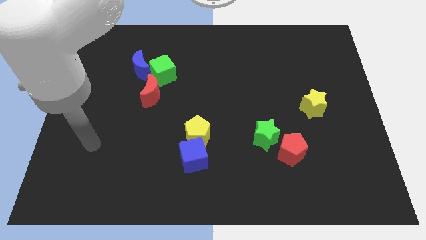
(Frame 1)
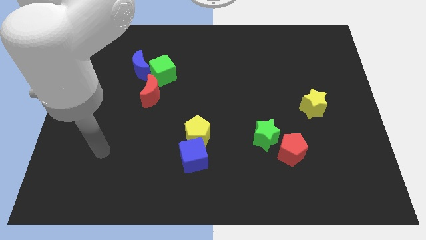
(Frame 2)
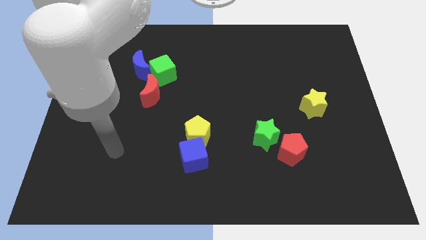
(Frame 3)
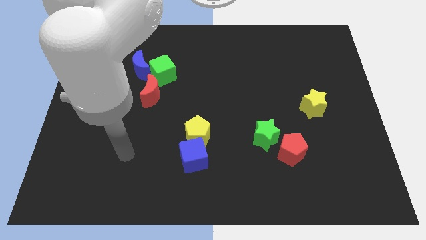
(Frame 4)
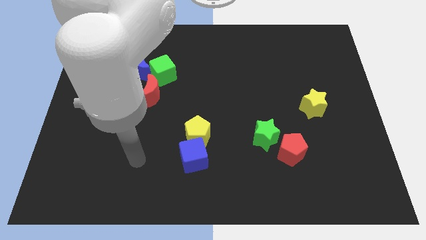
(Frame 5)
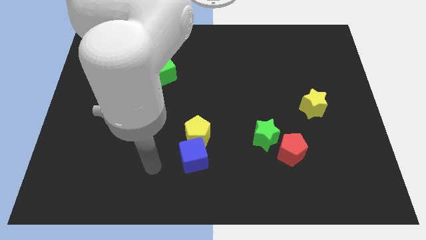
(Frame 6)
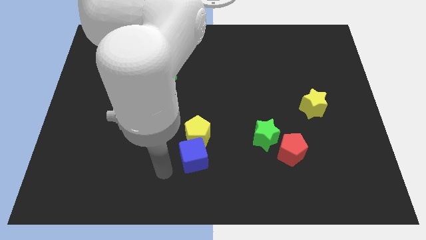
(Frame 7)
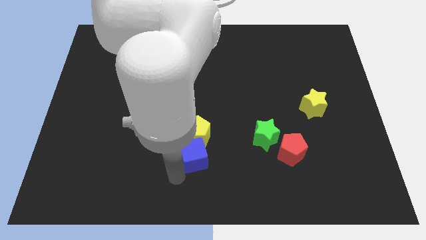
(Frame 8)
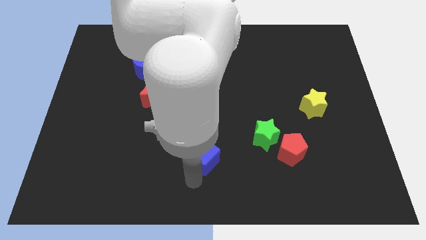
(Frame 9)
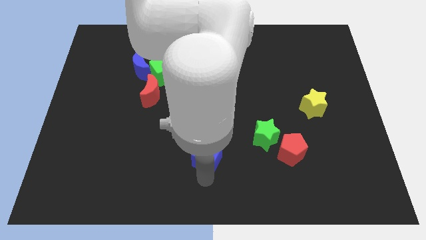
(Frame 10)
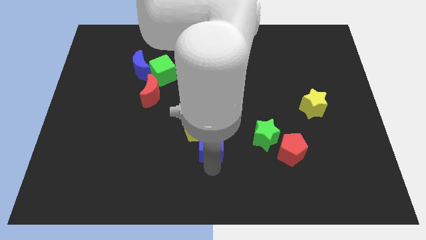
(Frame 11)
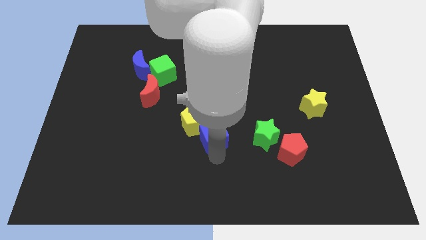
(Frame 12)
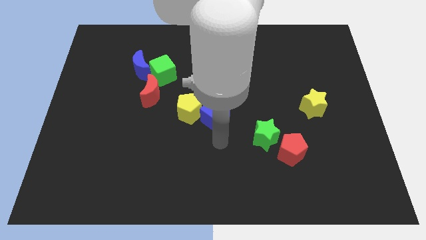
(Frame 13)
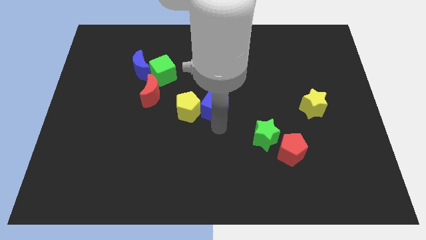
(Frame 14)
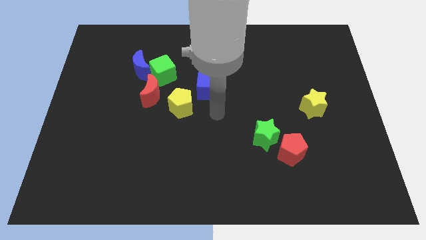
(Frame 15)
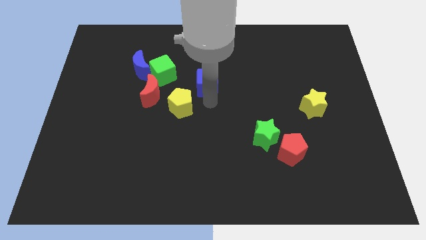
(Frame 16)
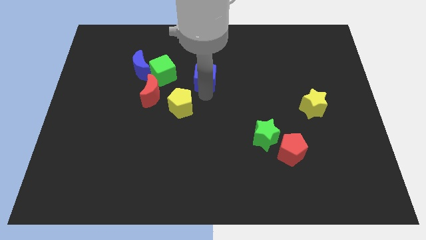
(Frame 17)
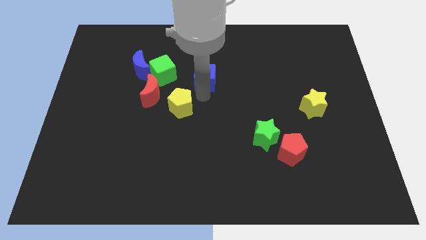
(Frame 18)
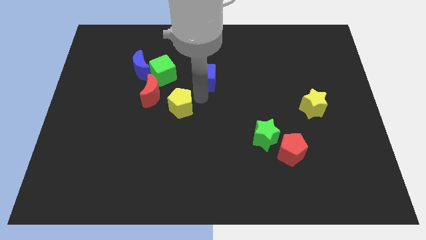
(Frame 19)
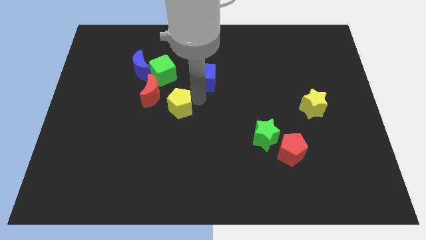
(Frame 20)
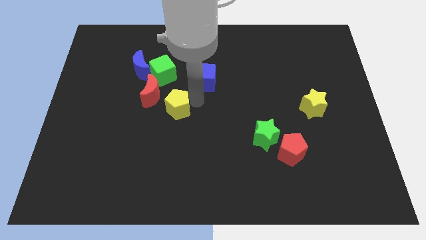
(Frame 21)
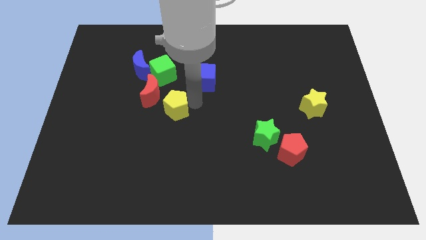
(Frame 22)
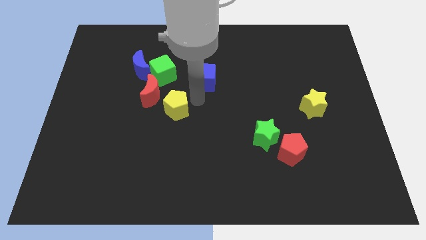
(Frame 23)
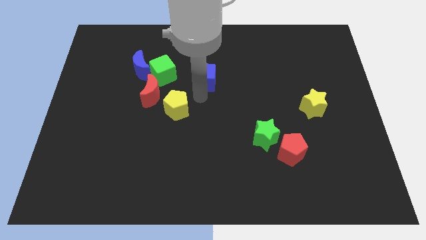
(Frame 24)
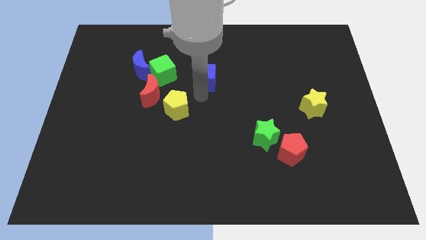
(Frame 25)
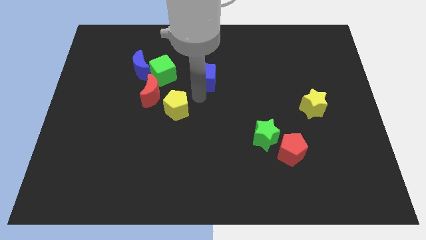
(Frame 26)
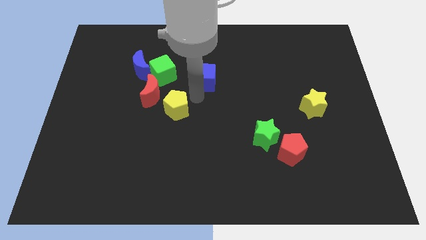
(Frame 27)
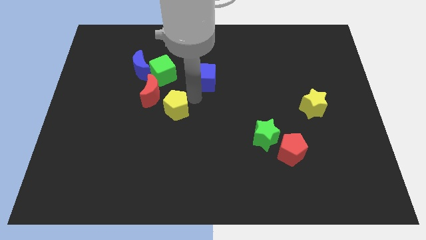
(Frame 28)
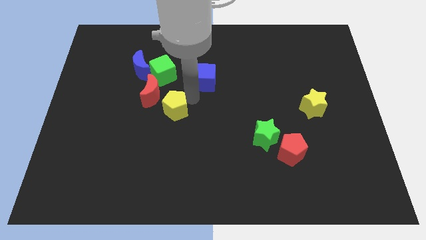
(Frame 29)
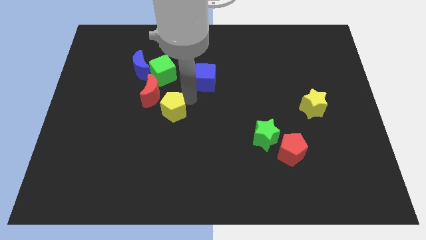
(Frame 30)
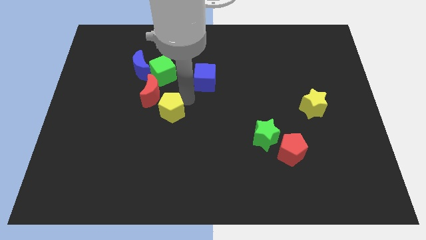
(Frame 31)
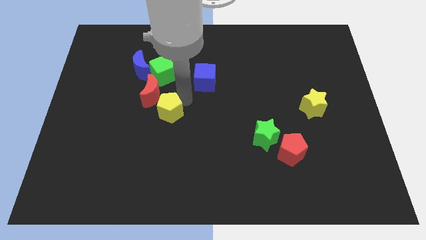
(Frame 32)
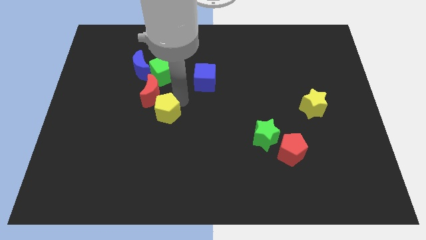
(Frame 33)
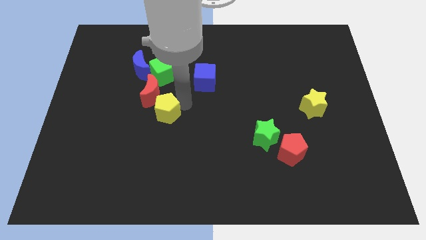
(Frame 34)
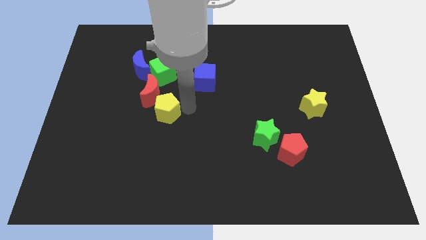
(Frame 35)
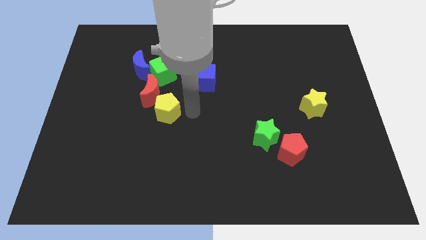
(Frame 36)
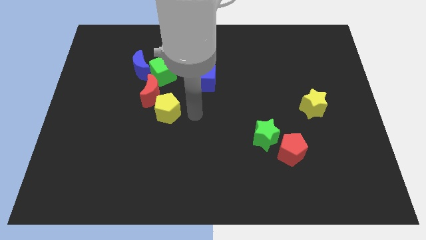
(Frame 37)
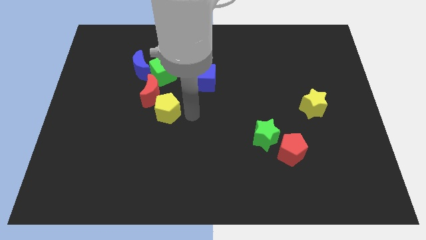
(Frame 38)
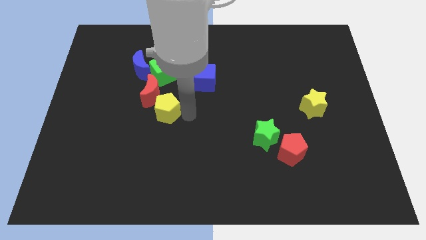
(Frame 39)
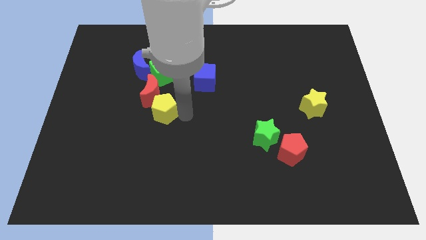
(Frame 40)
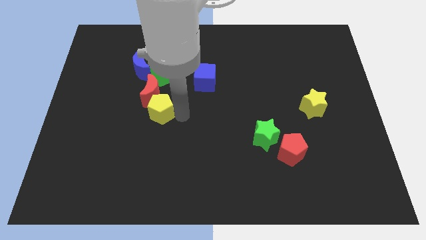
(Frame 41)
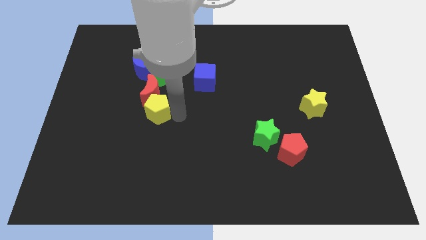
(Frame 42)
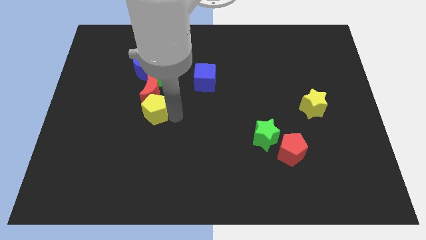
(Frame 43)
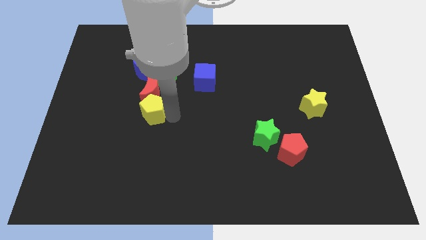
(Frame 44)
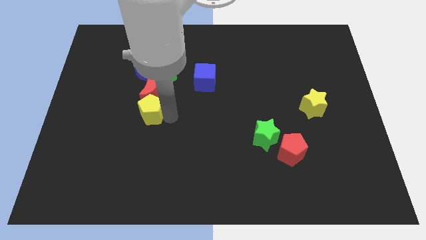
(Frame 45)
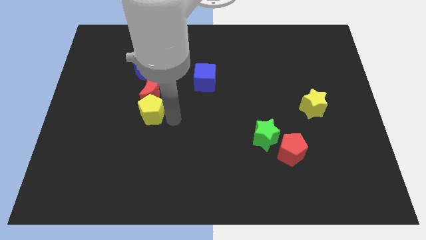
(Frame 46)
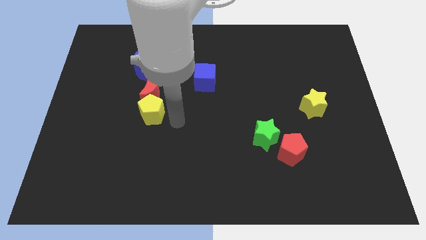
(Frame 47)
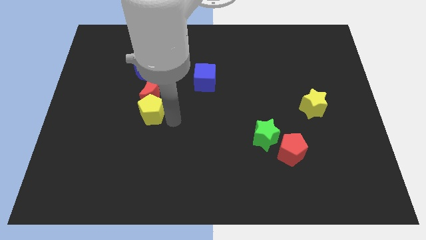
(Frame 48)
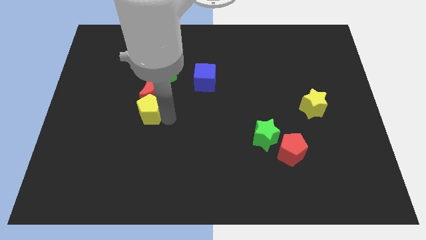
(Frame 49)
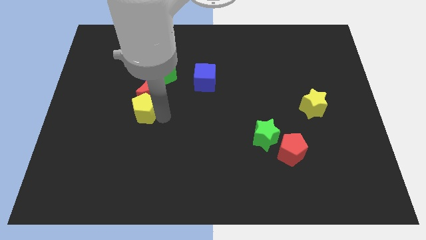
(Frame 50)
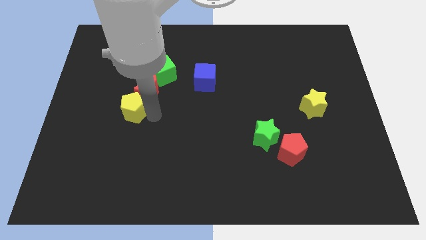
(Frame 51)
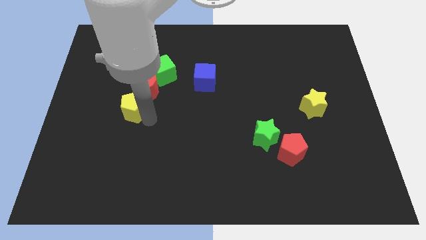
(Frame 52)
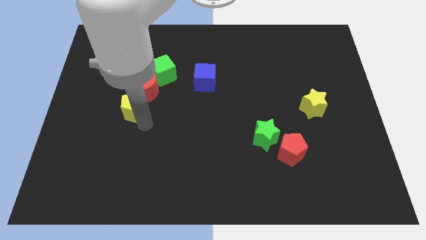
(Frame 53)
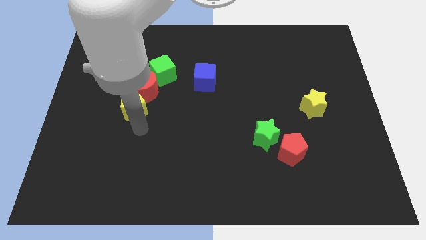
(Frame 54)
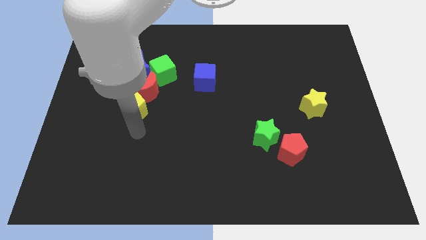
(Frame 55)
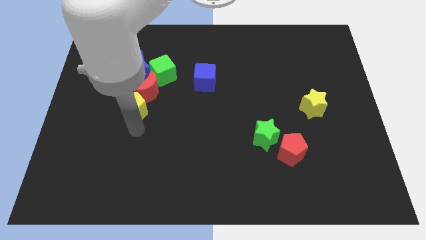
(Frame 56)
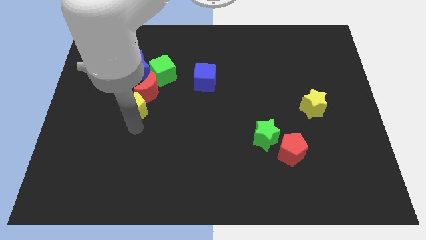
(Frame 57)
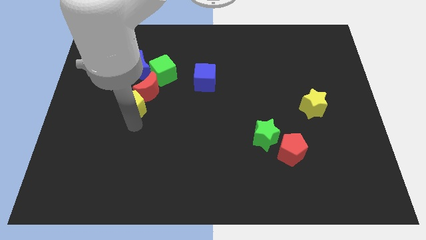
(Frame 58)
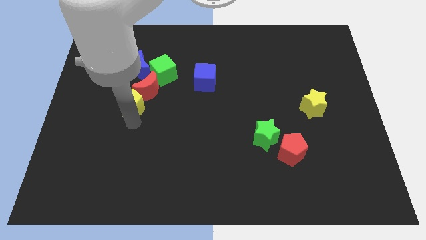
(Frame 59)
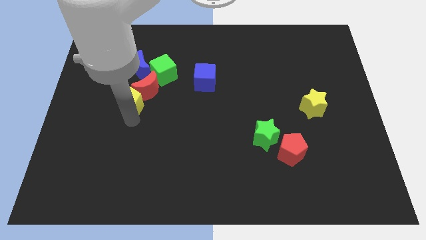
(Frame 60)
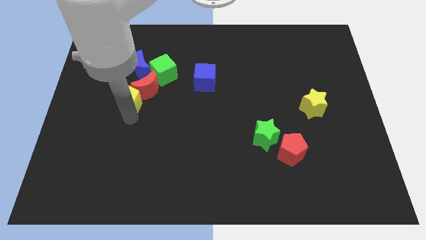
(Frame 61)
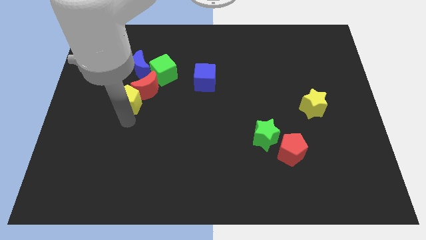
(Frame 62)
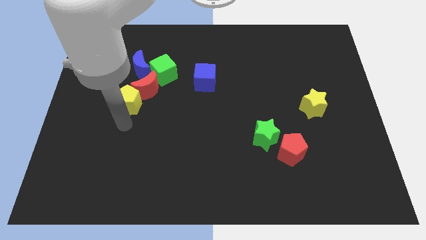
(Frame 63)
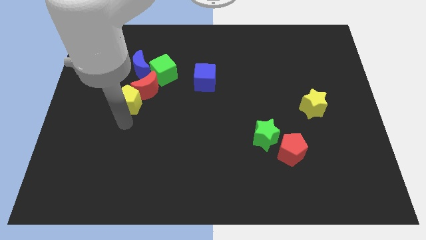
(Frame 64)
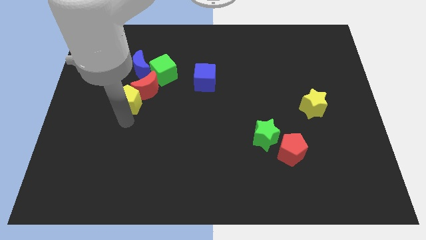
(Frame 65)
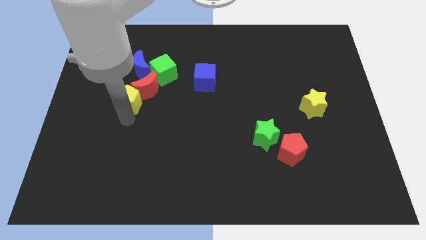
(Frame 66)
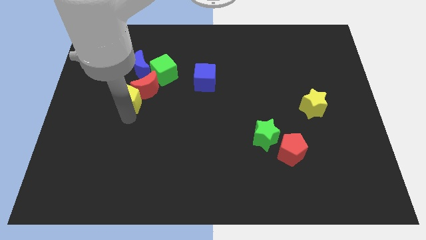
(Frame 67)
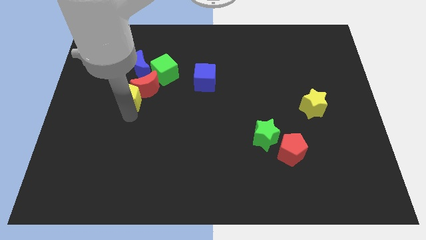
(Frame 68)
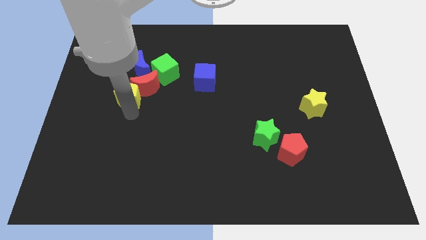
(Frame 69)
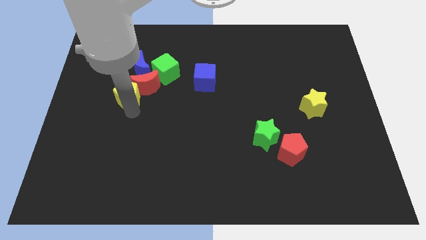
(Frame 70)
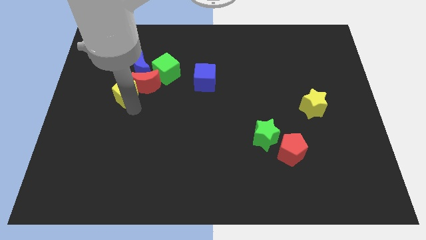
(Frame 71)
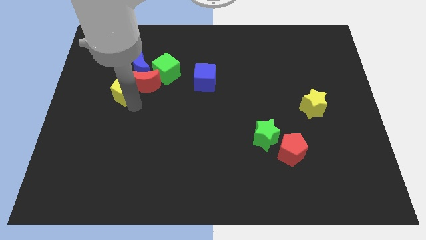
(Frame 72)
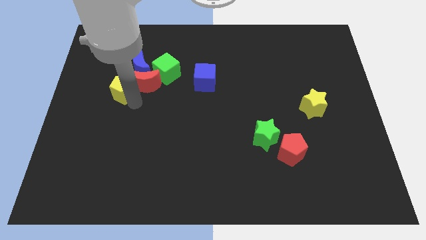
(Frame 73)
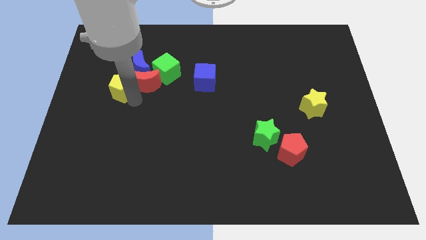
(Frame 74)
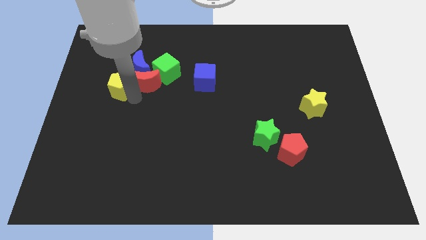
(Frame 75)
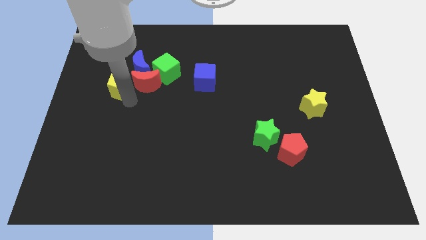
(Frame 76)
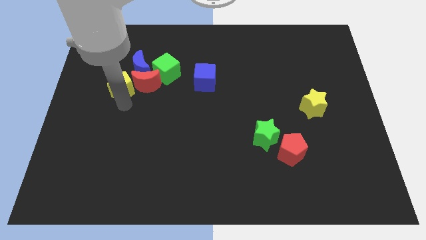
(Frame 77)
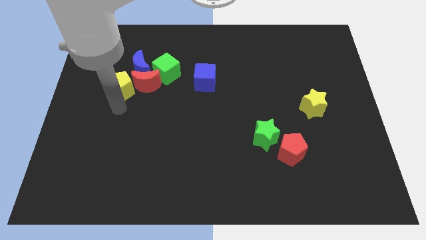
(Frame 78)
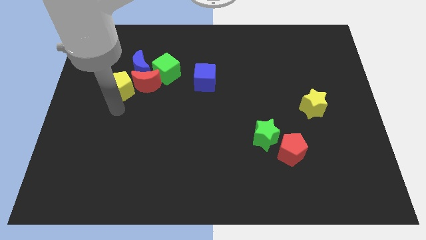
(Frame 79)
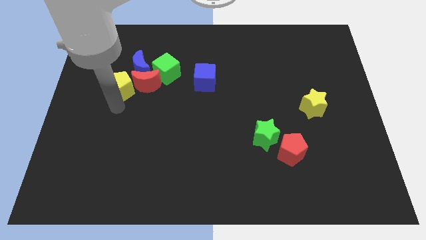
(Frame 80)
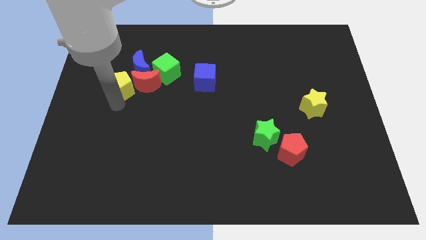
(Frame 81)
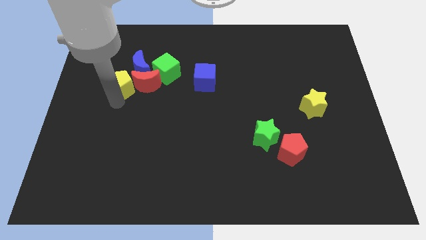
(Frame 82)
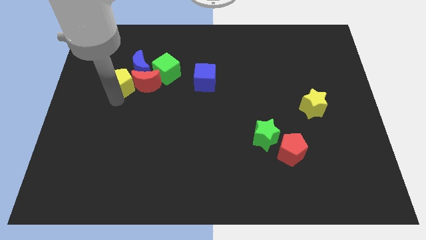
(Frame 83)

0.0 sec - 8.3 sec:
push the yellow pentagon to the left side of the green cube
